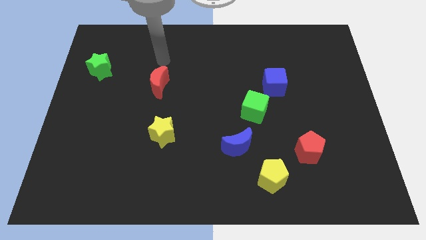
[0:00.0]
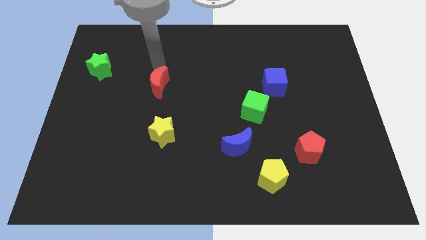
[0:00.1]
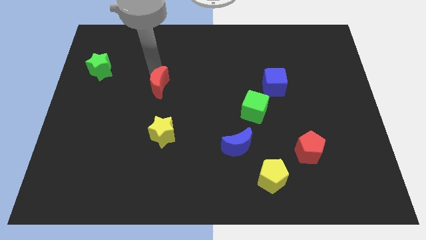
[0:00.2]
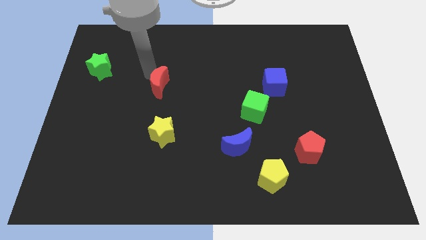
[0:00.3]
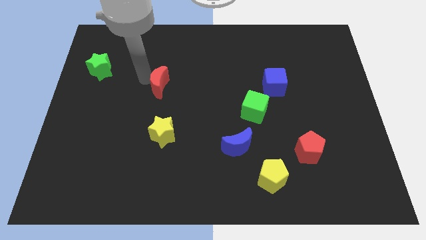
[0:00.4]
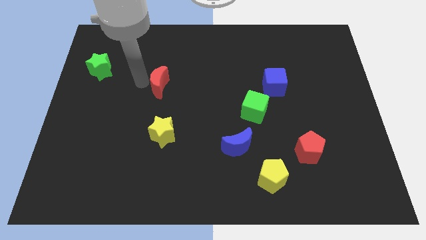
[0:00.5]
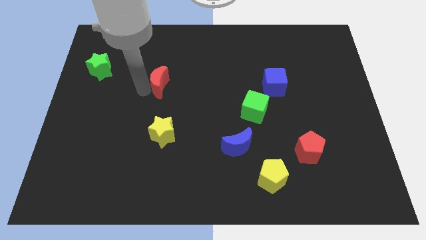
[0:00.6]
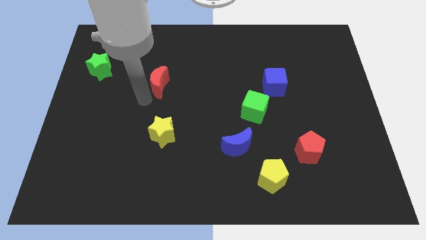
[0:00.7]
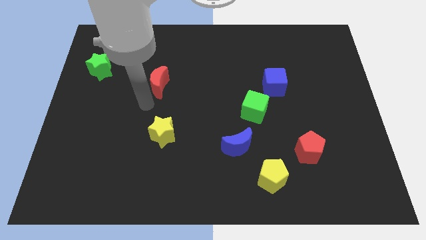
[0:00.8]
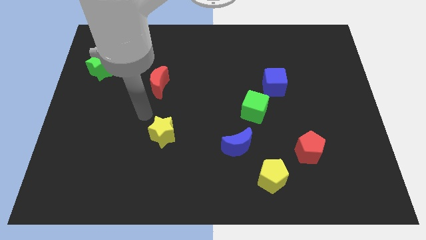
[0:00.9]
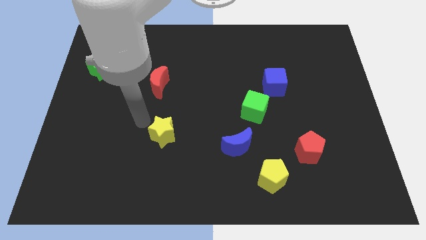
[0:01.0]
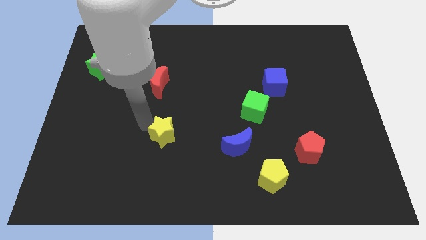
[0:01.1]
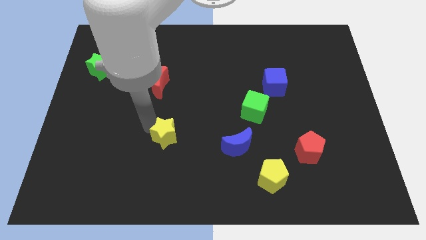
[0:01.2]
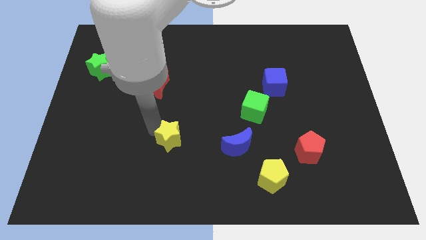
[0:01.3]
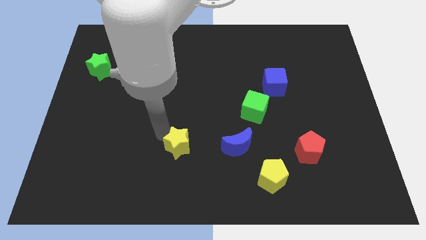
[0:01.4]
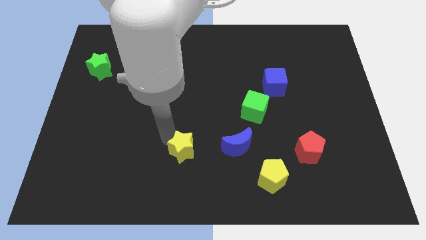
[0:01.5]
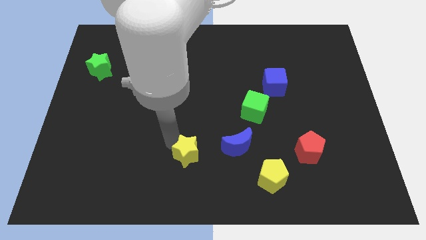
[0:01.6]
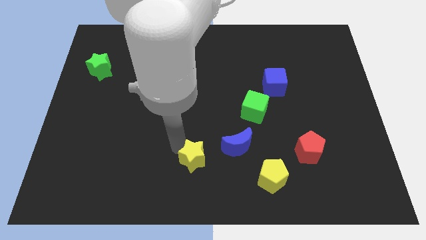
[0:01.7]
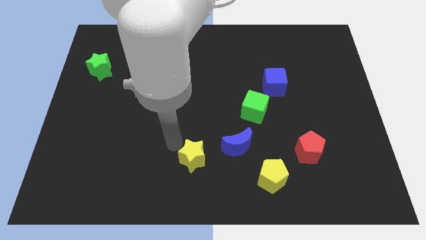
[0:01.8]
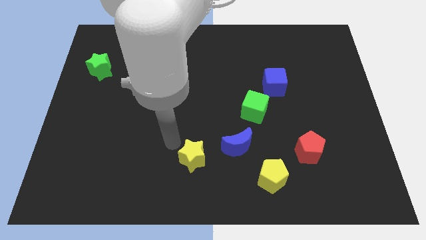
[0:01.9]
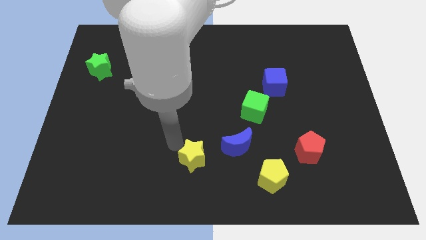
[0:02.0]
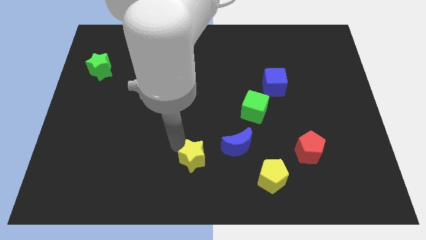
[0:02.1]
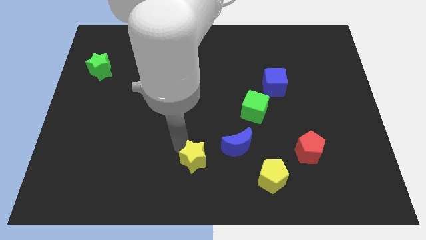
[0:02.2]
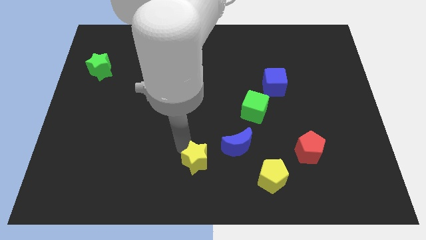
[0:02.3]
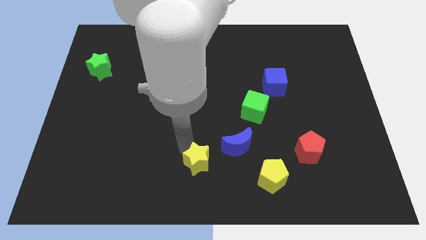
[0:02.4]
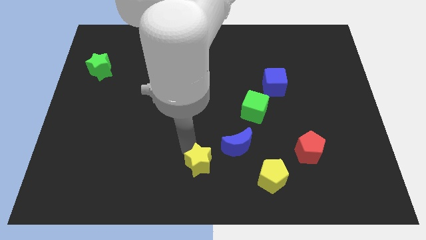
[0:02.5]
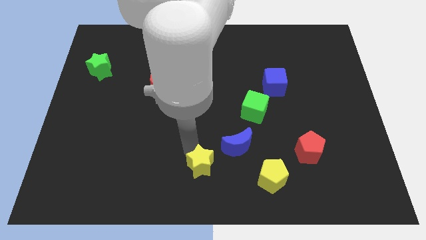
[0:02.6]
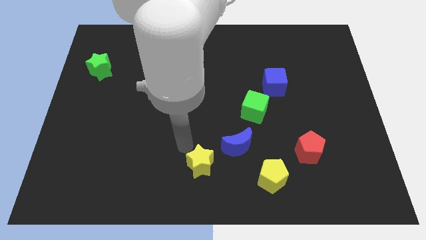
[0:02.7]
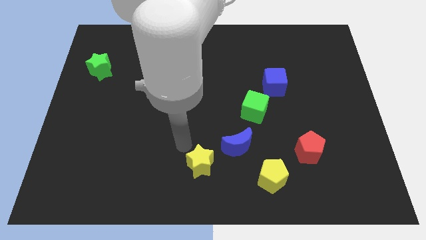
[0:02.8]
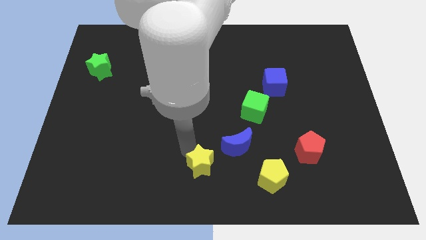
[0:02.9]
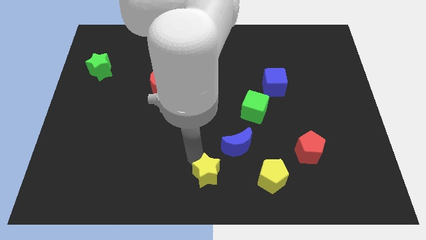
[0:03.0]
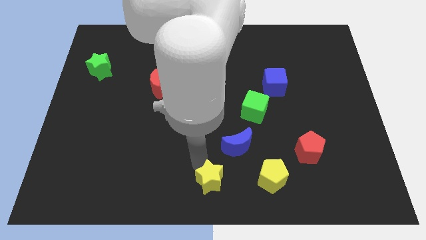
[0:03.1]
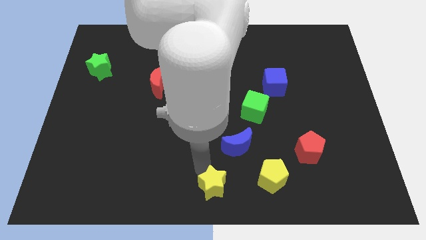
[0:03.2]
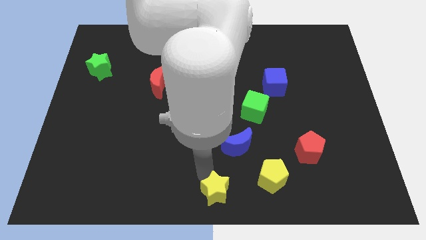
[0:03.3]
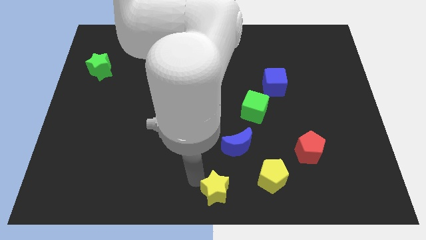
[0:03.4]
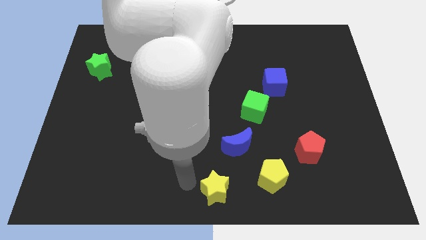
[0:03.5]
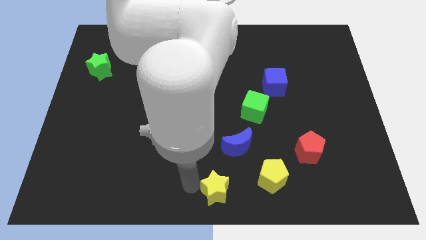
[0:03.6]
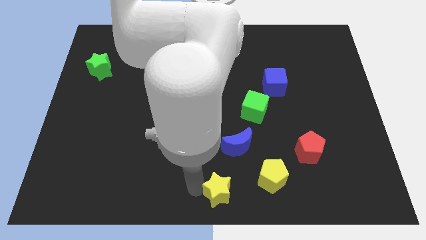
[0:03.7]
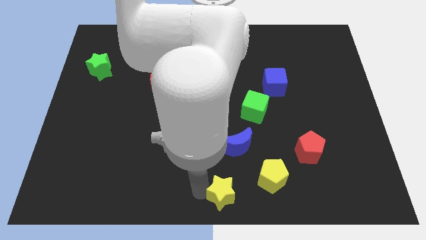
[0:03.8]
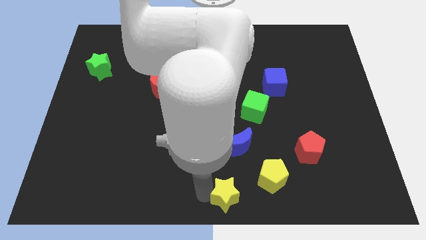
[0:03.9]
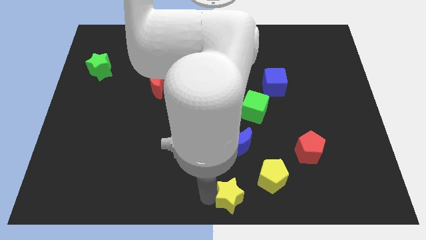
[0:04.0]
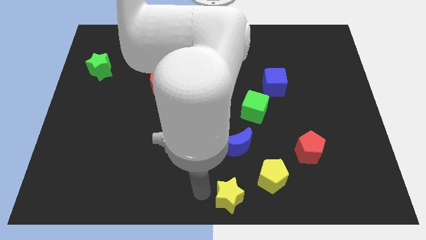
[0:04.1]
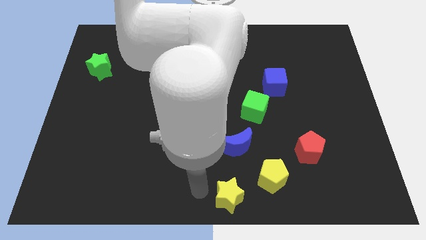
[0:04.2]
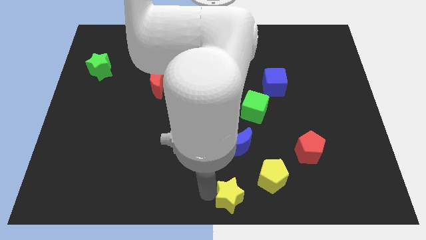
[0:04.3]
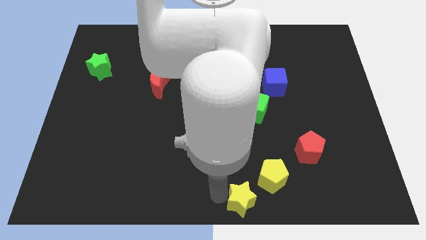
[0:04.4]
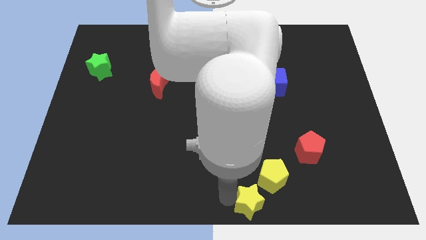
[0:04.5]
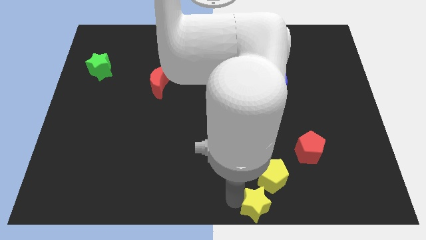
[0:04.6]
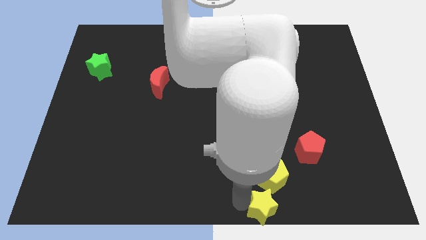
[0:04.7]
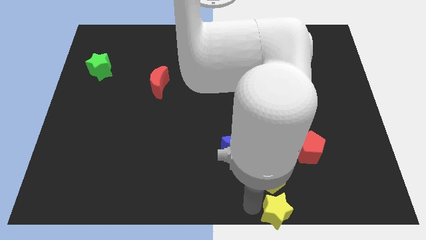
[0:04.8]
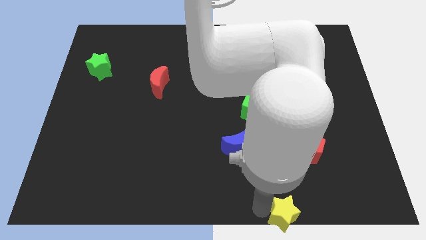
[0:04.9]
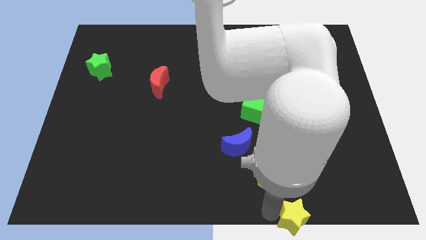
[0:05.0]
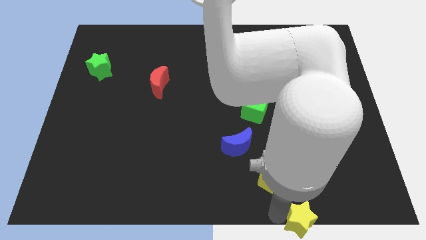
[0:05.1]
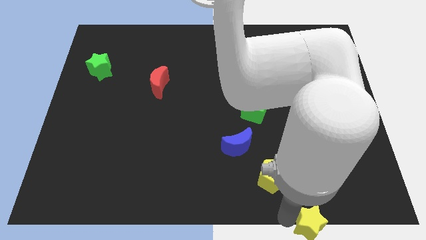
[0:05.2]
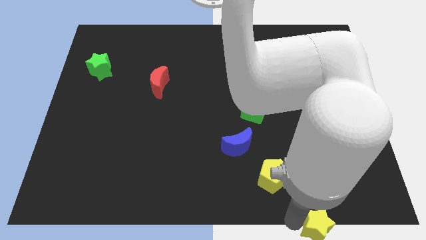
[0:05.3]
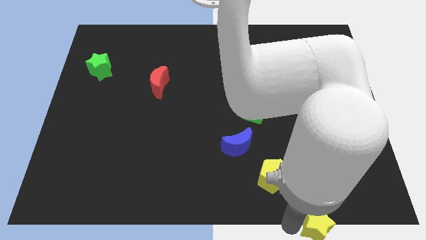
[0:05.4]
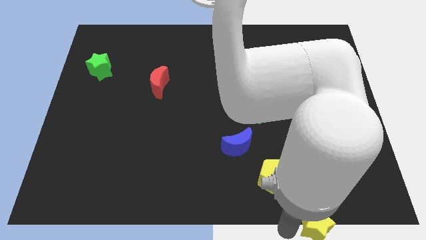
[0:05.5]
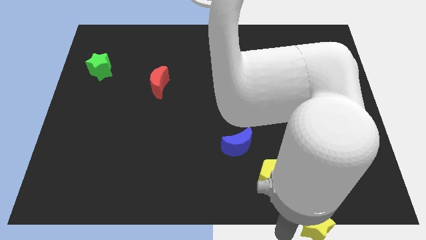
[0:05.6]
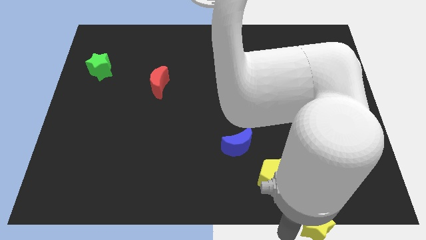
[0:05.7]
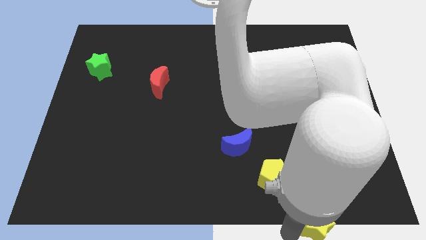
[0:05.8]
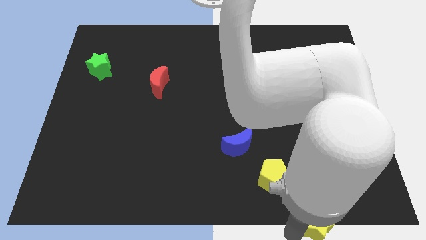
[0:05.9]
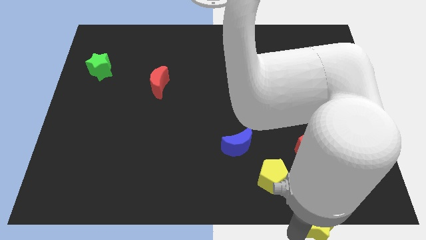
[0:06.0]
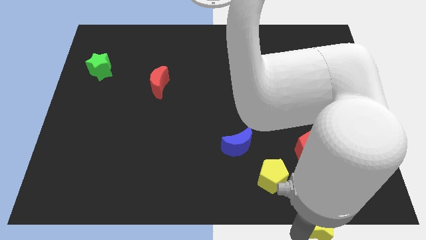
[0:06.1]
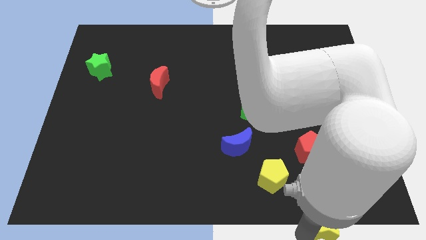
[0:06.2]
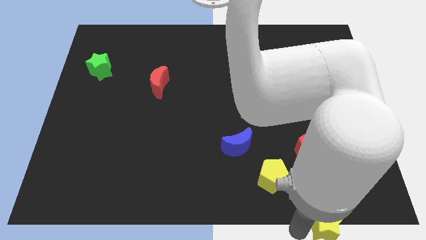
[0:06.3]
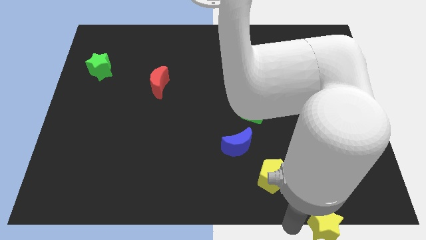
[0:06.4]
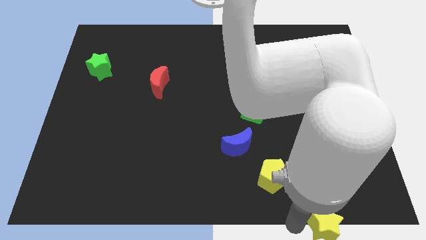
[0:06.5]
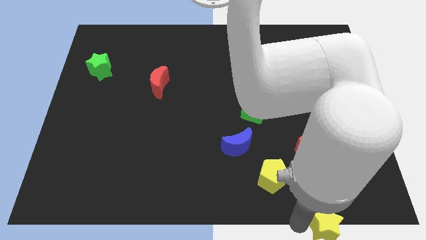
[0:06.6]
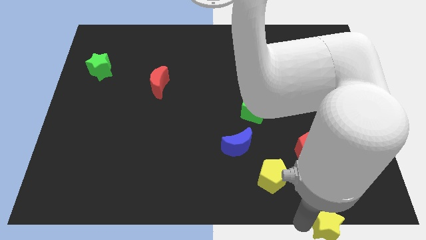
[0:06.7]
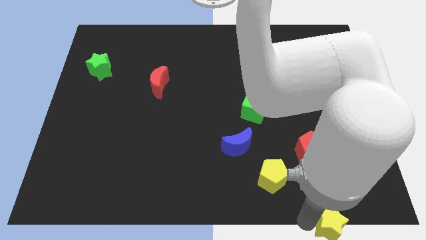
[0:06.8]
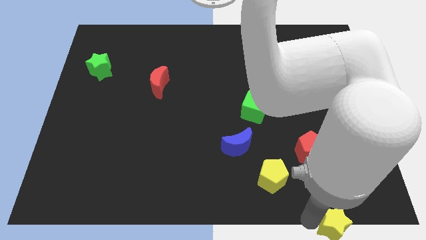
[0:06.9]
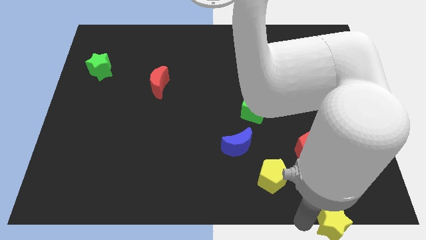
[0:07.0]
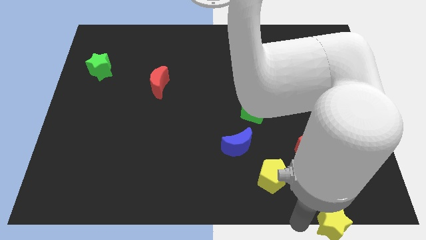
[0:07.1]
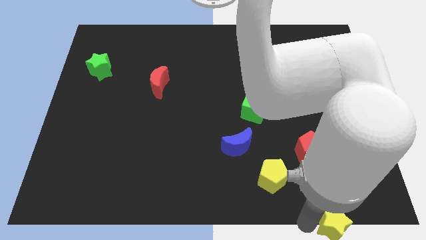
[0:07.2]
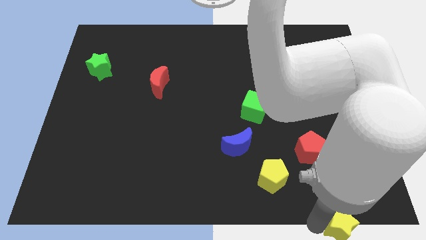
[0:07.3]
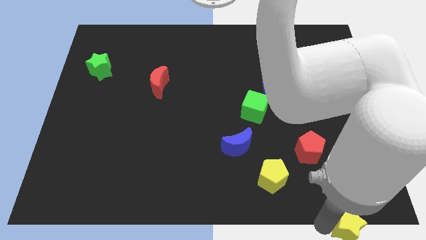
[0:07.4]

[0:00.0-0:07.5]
slide the yellow star to the lower right corner
